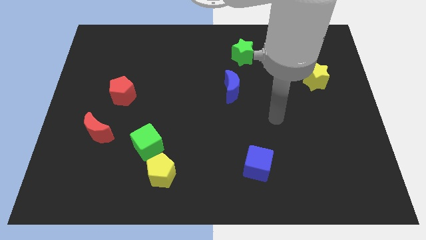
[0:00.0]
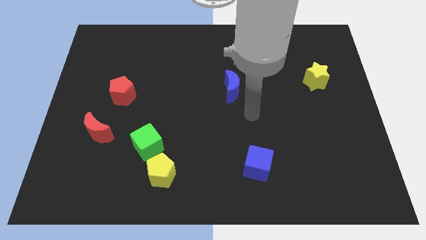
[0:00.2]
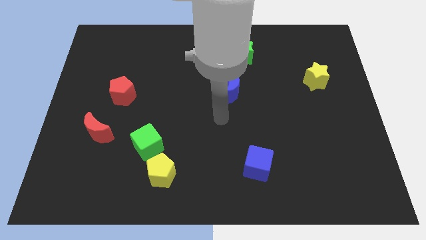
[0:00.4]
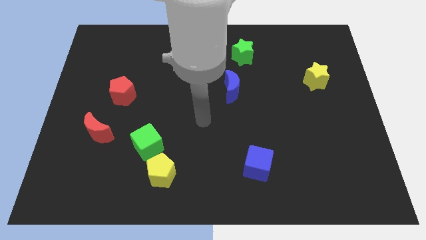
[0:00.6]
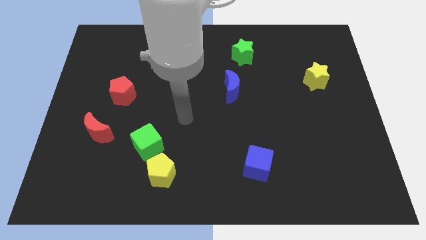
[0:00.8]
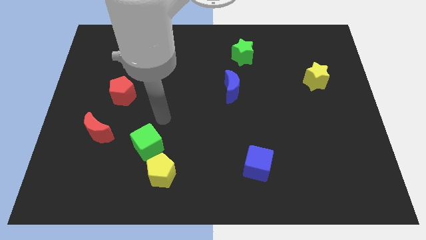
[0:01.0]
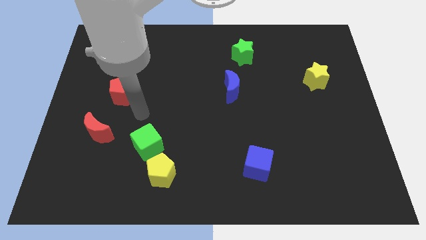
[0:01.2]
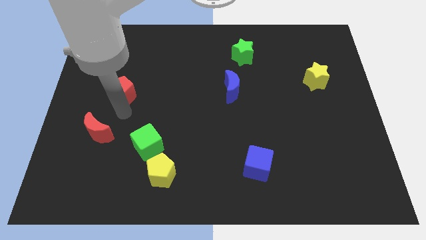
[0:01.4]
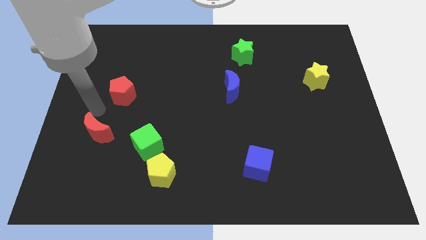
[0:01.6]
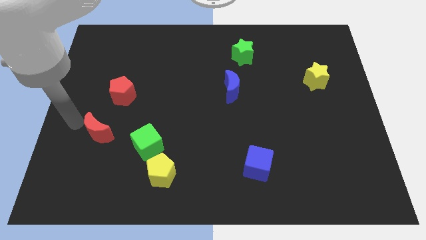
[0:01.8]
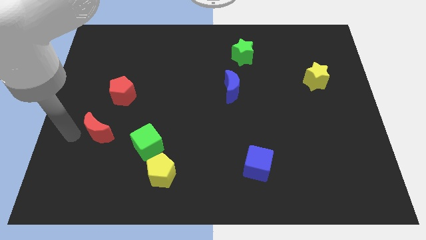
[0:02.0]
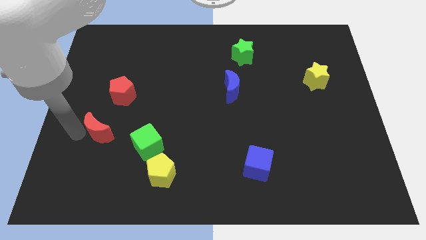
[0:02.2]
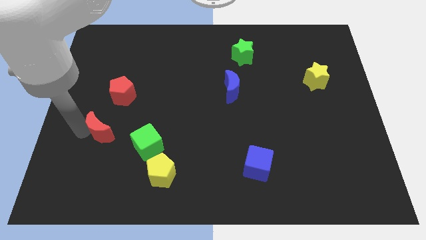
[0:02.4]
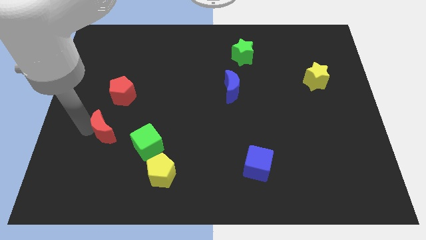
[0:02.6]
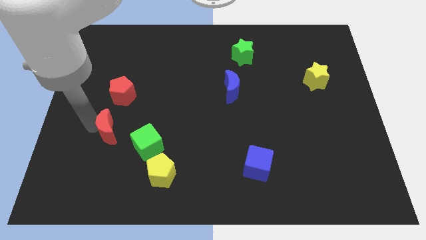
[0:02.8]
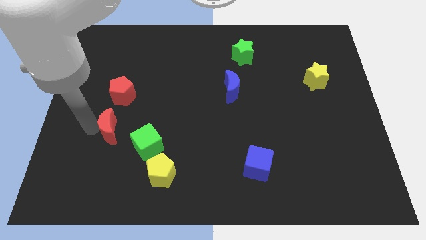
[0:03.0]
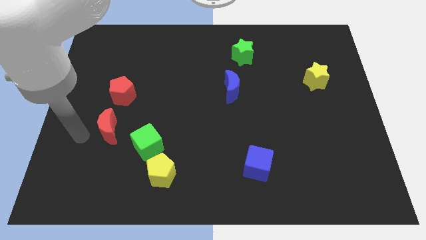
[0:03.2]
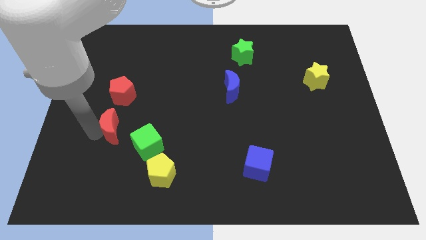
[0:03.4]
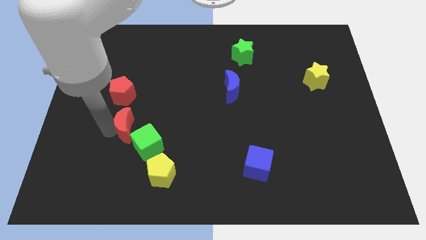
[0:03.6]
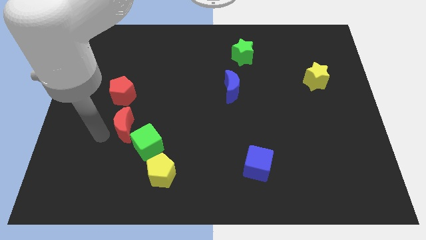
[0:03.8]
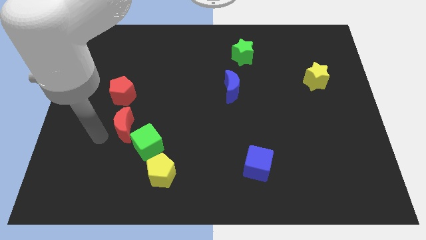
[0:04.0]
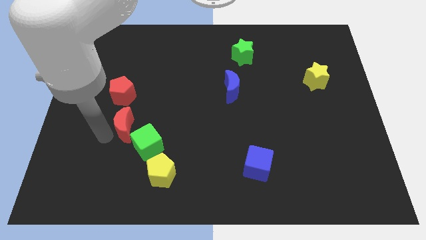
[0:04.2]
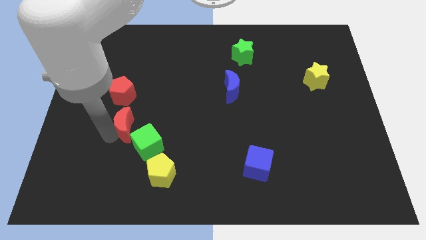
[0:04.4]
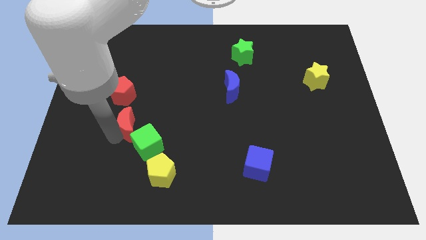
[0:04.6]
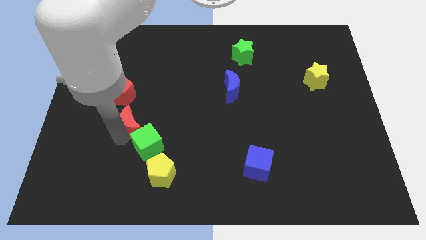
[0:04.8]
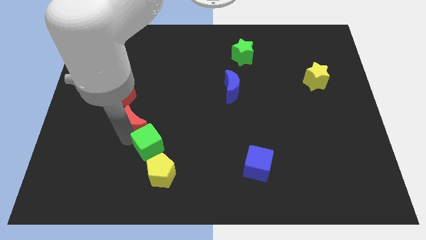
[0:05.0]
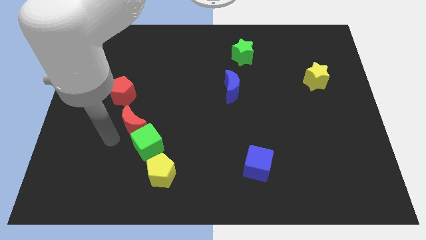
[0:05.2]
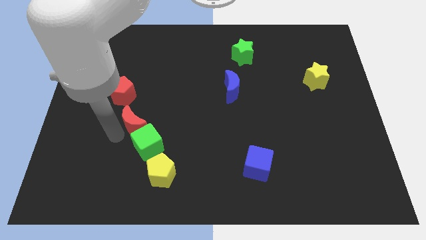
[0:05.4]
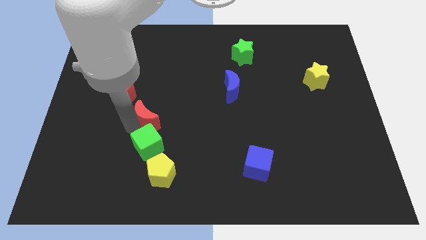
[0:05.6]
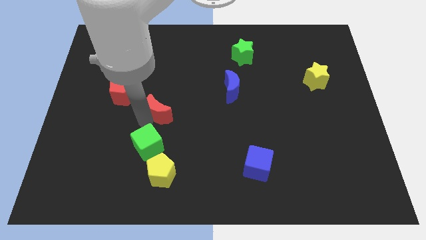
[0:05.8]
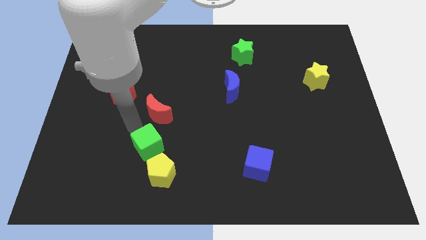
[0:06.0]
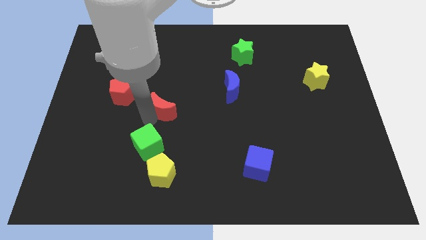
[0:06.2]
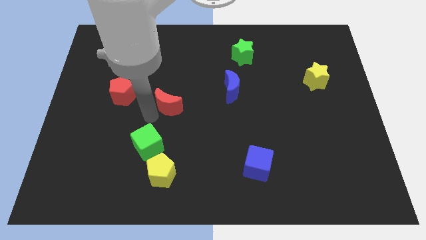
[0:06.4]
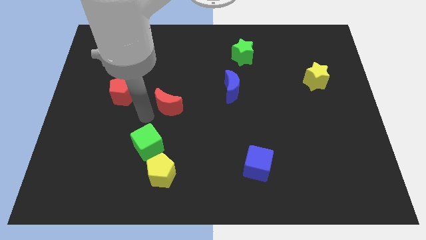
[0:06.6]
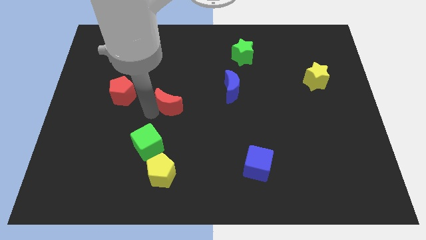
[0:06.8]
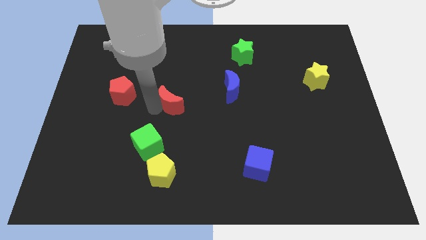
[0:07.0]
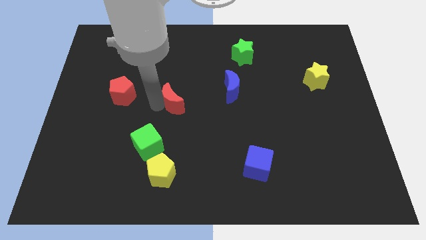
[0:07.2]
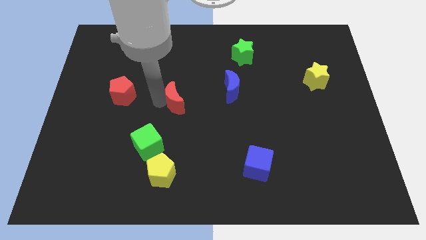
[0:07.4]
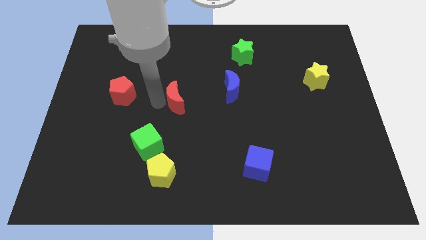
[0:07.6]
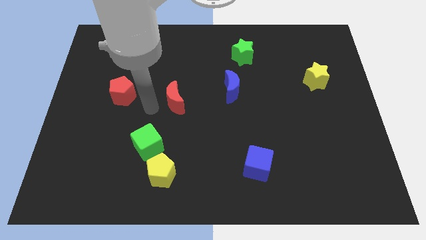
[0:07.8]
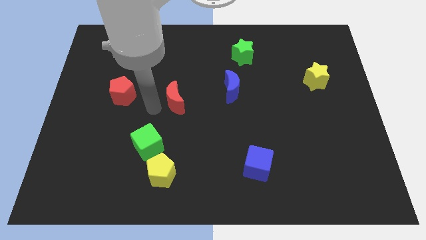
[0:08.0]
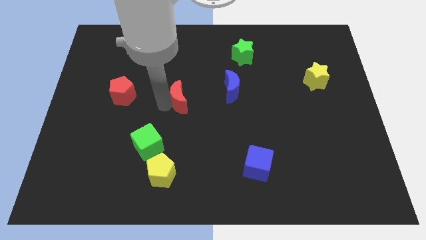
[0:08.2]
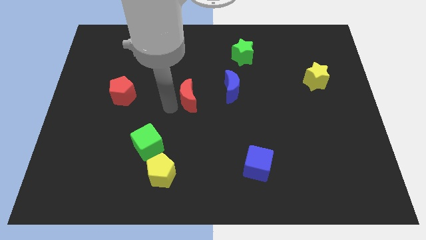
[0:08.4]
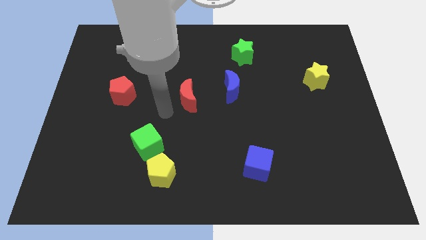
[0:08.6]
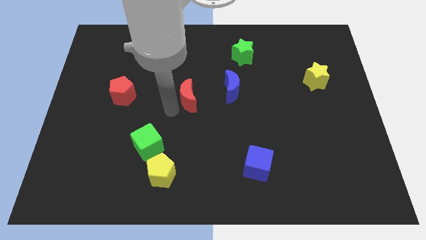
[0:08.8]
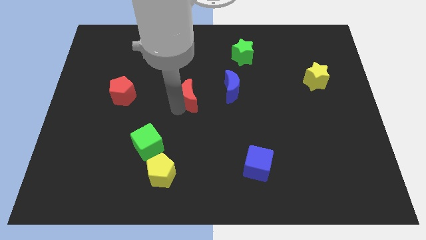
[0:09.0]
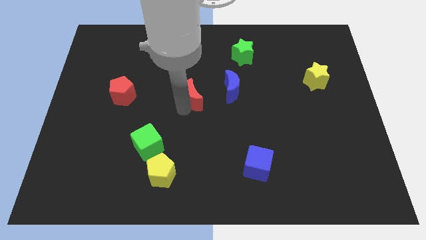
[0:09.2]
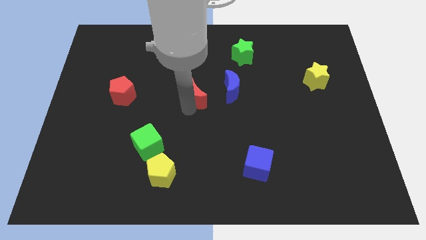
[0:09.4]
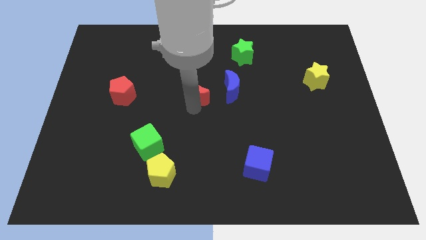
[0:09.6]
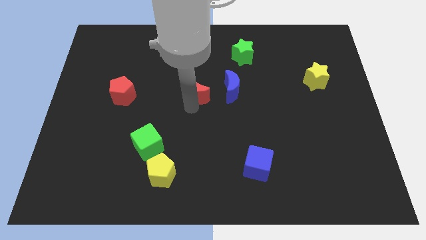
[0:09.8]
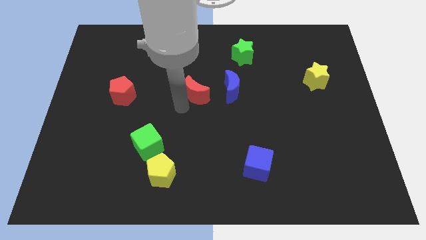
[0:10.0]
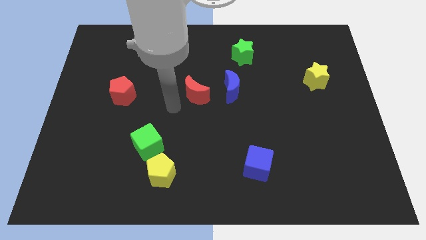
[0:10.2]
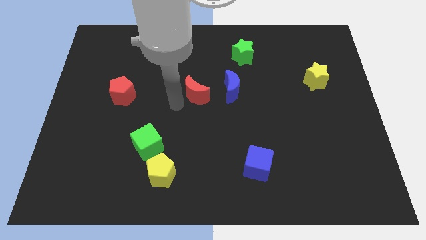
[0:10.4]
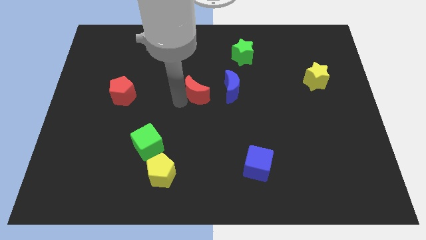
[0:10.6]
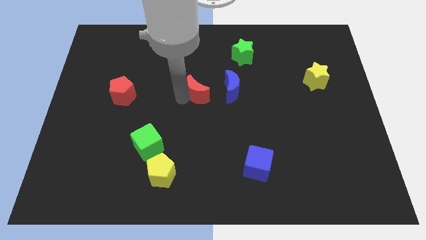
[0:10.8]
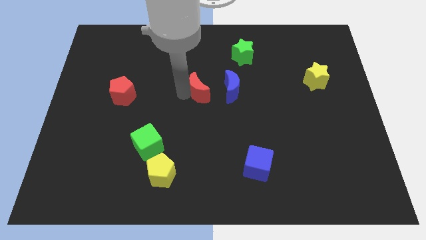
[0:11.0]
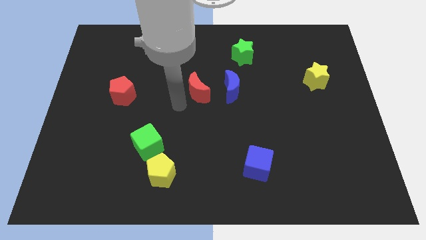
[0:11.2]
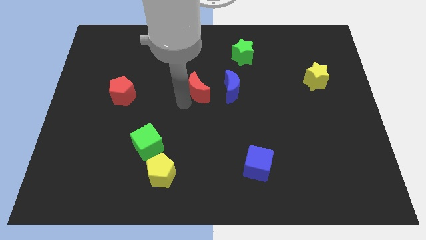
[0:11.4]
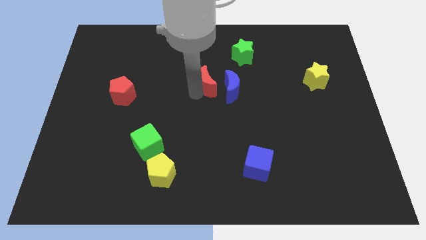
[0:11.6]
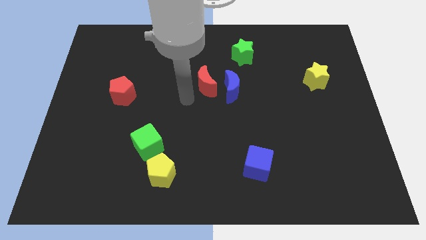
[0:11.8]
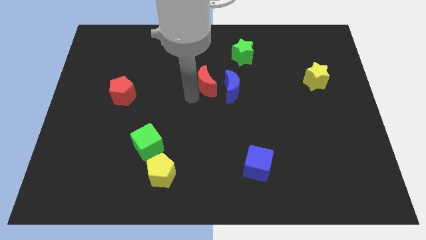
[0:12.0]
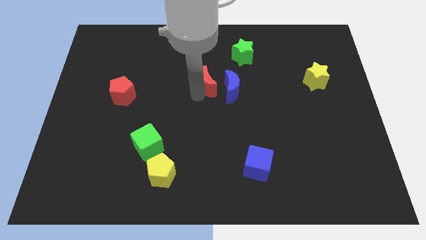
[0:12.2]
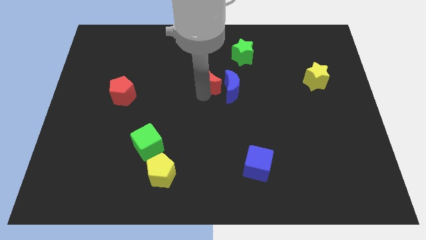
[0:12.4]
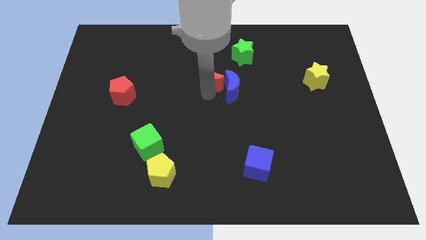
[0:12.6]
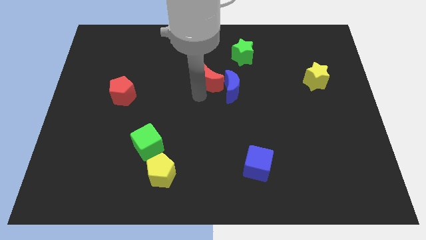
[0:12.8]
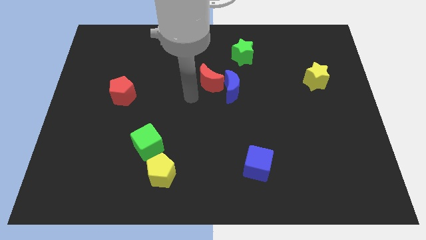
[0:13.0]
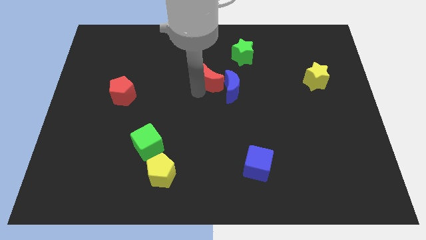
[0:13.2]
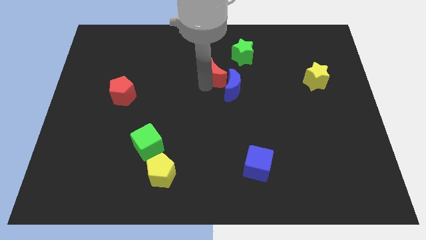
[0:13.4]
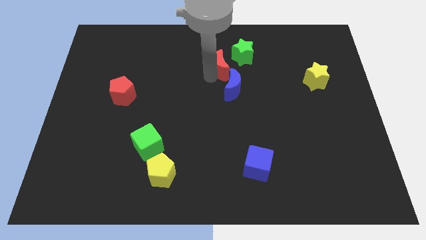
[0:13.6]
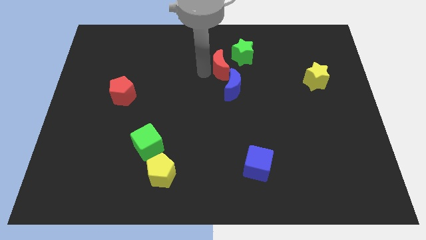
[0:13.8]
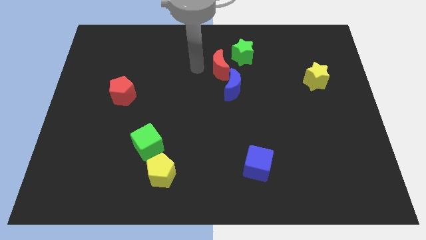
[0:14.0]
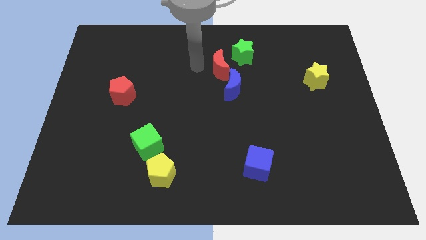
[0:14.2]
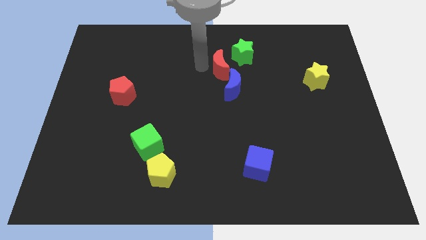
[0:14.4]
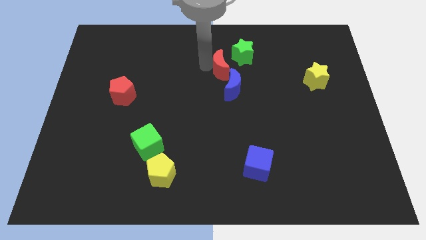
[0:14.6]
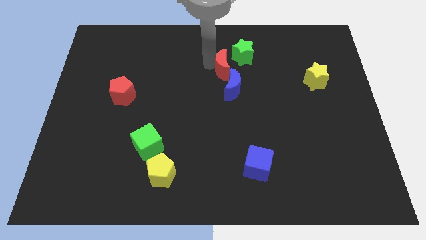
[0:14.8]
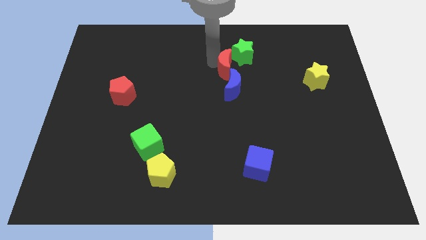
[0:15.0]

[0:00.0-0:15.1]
push the red moon next to the green star
